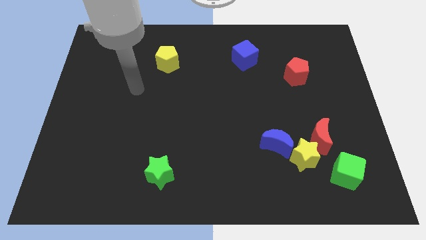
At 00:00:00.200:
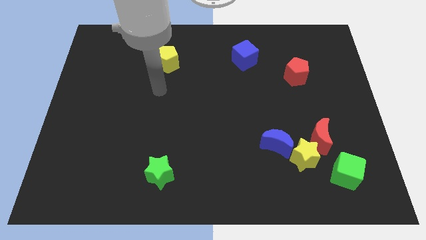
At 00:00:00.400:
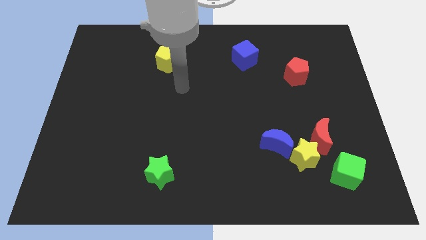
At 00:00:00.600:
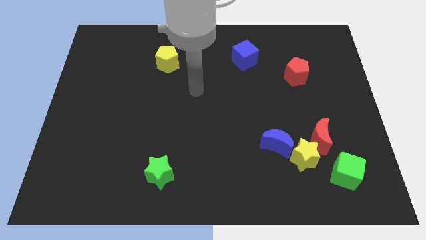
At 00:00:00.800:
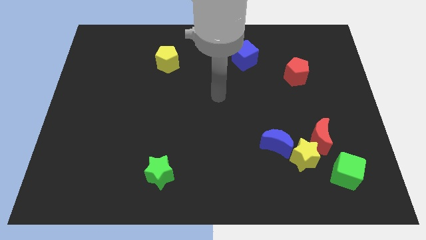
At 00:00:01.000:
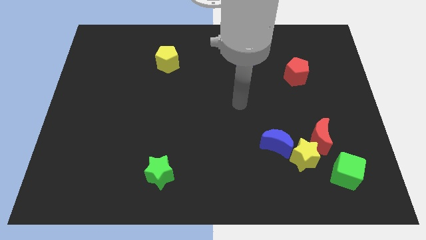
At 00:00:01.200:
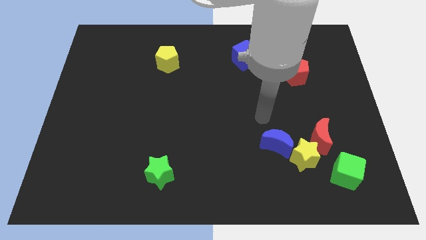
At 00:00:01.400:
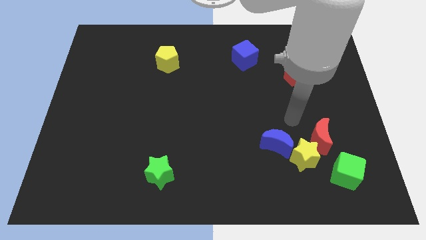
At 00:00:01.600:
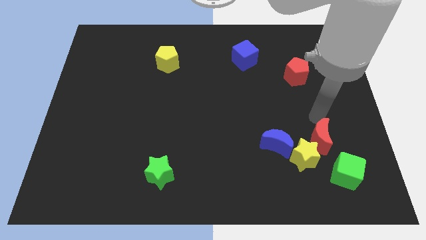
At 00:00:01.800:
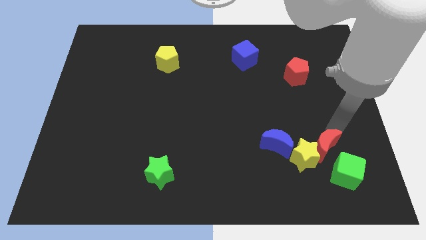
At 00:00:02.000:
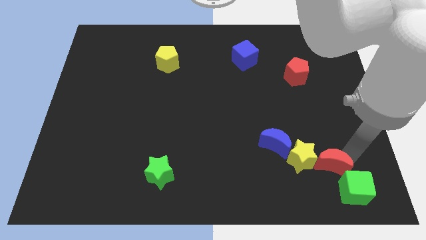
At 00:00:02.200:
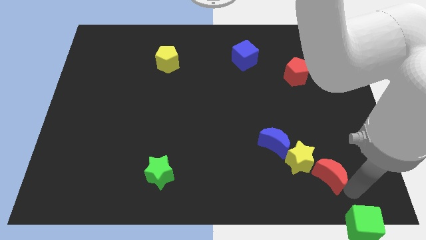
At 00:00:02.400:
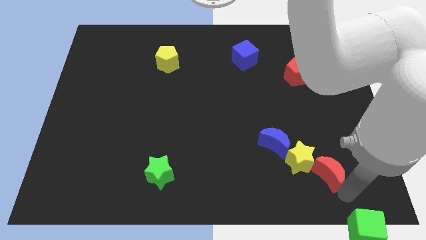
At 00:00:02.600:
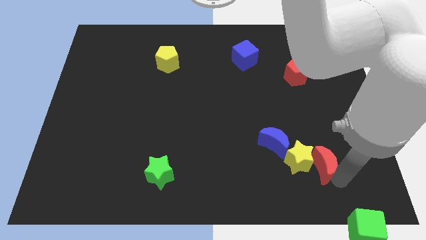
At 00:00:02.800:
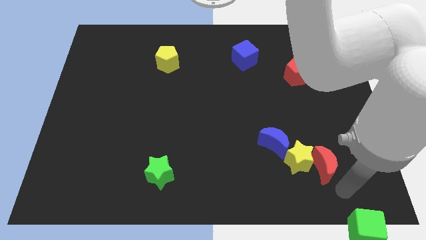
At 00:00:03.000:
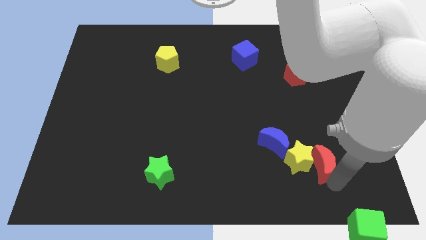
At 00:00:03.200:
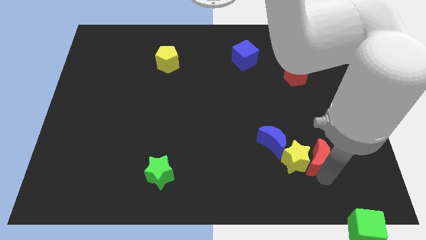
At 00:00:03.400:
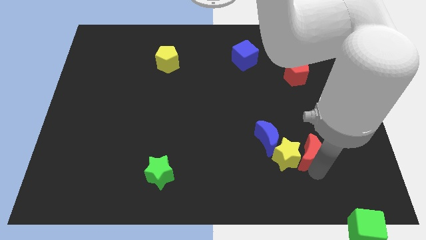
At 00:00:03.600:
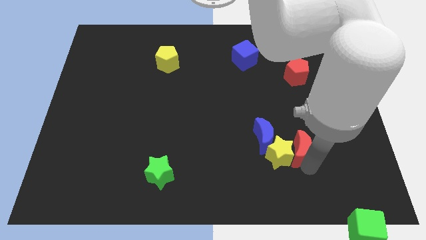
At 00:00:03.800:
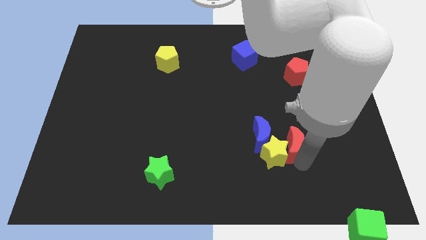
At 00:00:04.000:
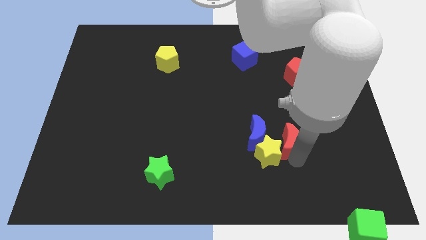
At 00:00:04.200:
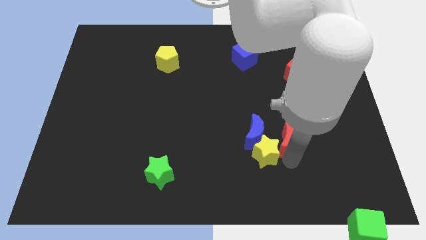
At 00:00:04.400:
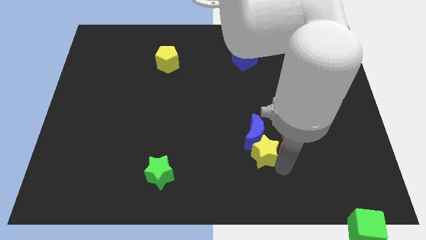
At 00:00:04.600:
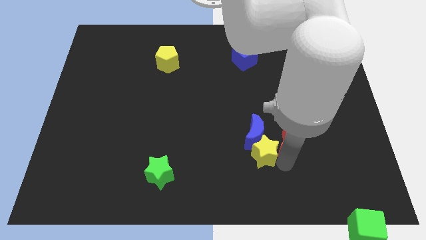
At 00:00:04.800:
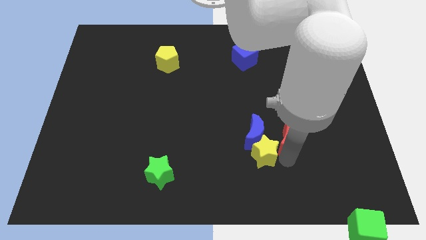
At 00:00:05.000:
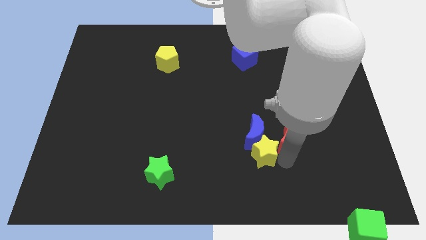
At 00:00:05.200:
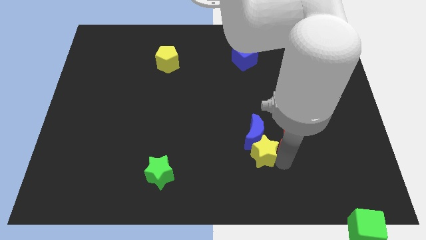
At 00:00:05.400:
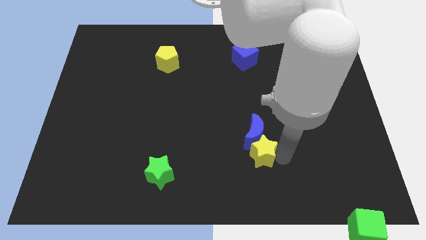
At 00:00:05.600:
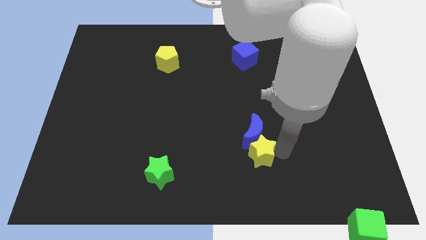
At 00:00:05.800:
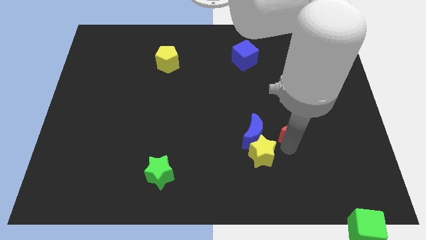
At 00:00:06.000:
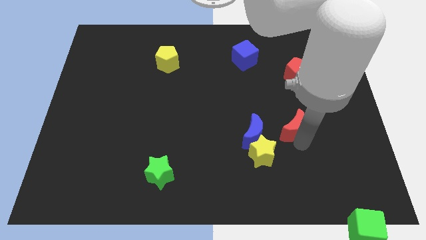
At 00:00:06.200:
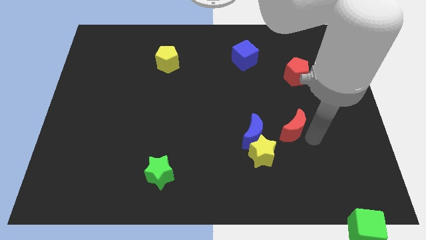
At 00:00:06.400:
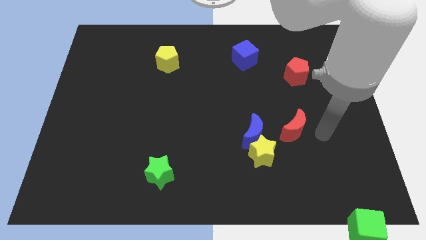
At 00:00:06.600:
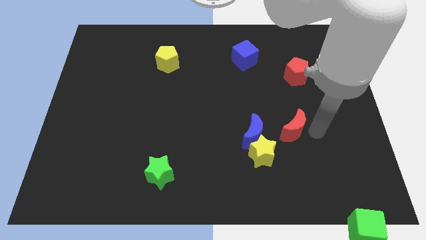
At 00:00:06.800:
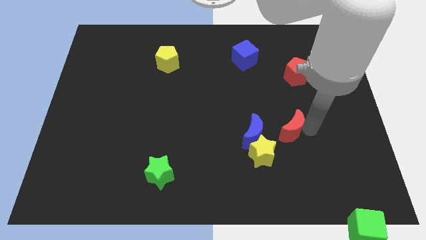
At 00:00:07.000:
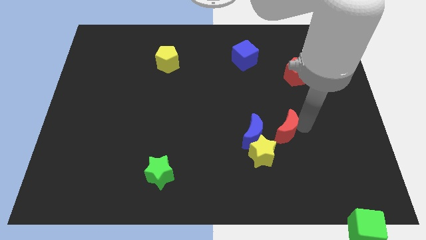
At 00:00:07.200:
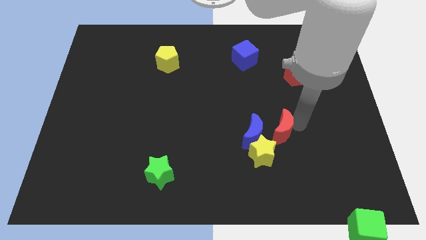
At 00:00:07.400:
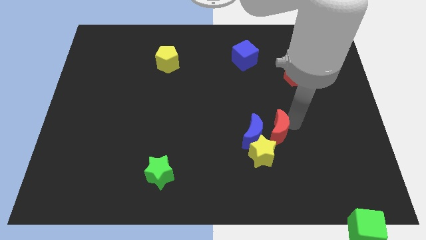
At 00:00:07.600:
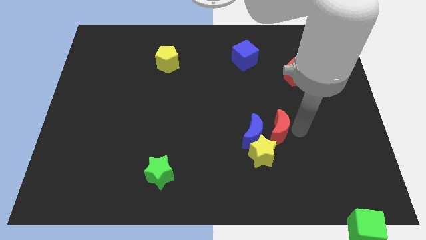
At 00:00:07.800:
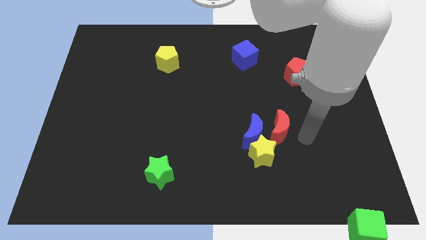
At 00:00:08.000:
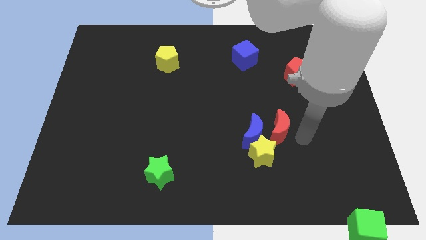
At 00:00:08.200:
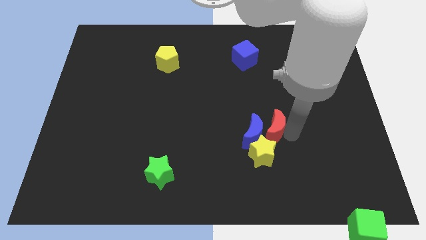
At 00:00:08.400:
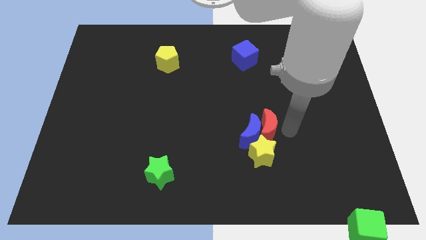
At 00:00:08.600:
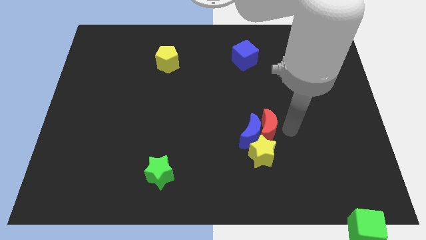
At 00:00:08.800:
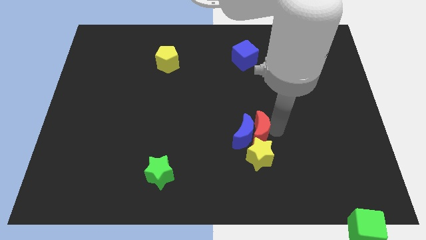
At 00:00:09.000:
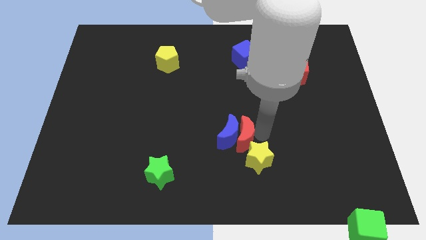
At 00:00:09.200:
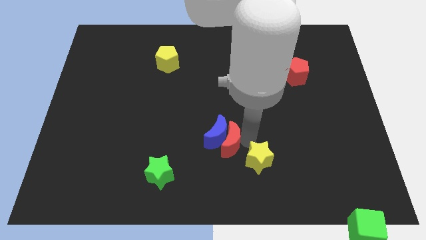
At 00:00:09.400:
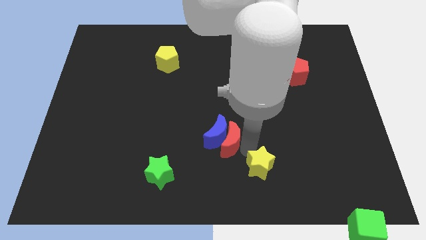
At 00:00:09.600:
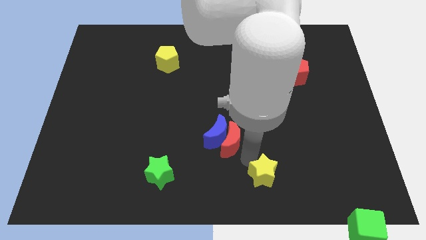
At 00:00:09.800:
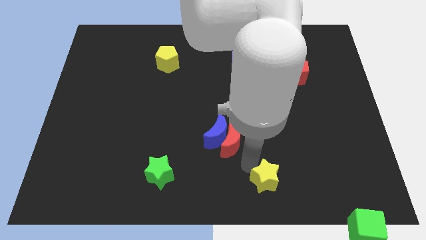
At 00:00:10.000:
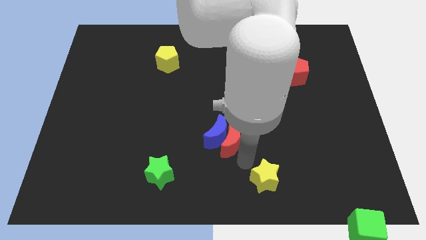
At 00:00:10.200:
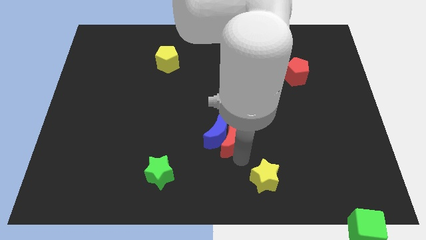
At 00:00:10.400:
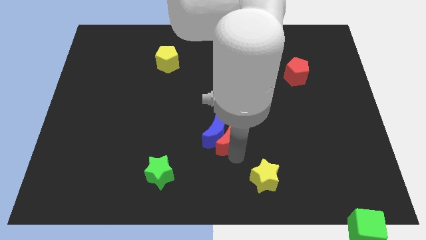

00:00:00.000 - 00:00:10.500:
push the red moon left

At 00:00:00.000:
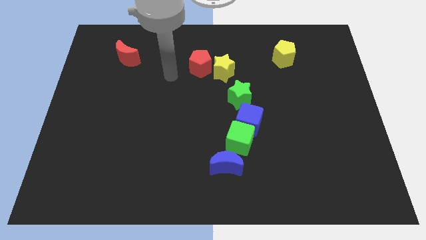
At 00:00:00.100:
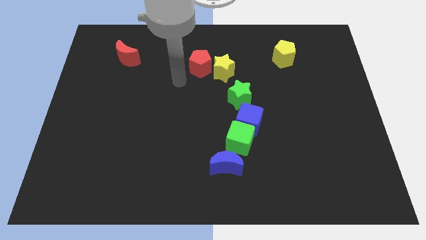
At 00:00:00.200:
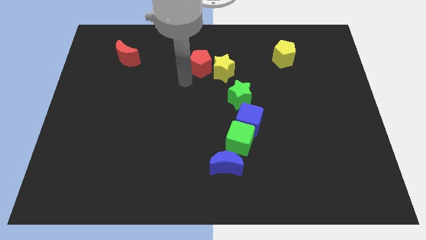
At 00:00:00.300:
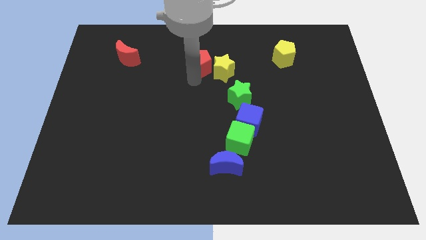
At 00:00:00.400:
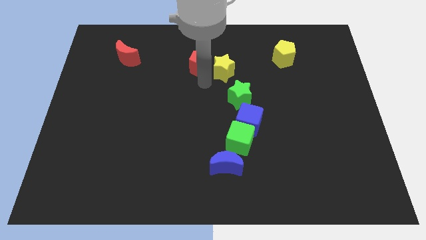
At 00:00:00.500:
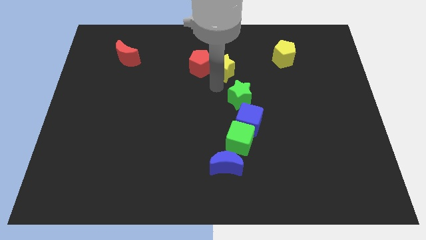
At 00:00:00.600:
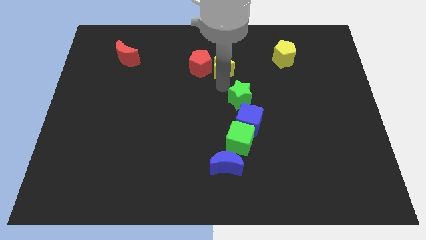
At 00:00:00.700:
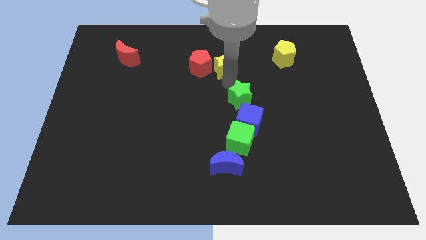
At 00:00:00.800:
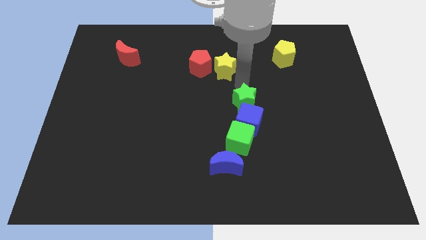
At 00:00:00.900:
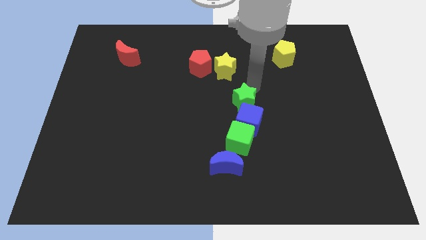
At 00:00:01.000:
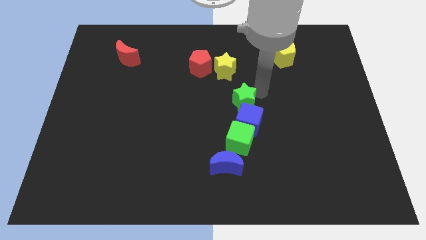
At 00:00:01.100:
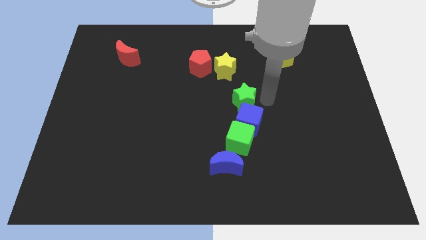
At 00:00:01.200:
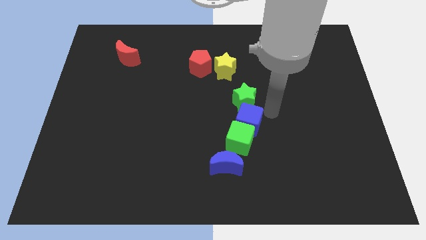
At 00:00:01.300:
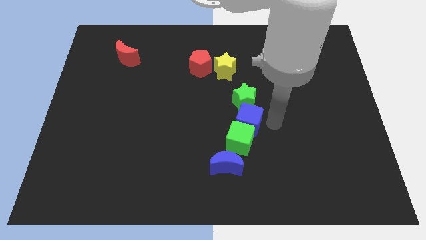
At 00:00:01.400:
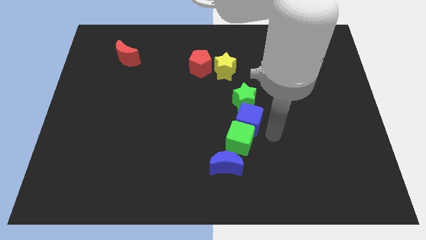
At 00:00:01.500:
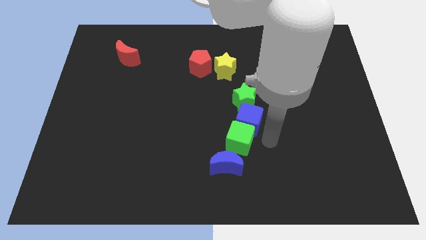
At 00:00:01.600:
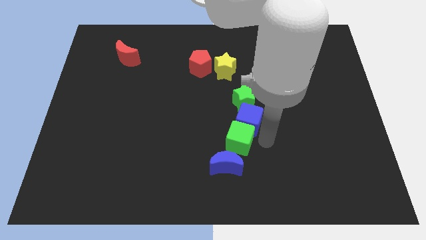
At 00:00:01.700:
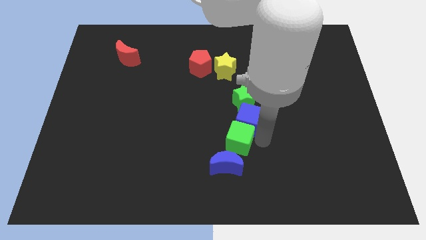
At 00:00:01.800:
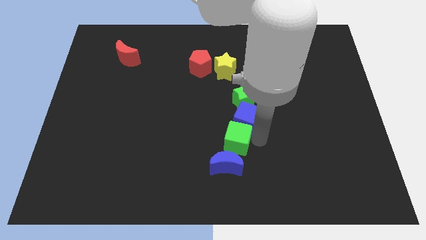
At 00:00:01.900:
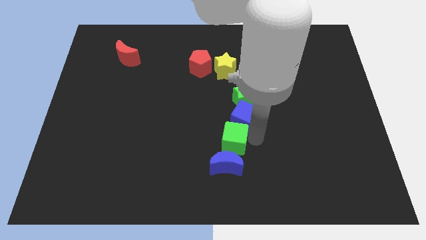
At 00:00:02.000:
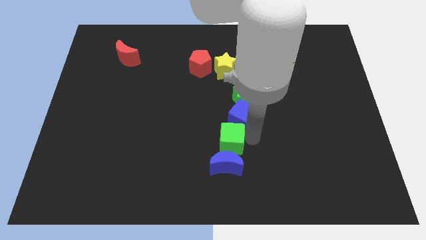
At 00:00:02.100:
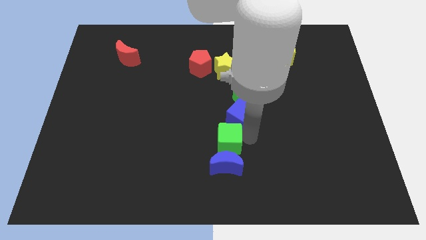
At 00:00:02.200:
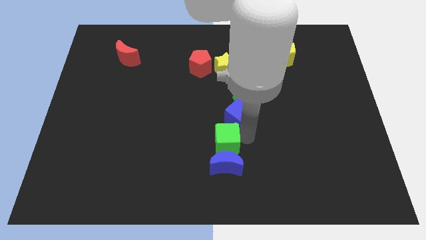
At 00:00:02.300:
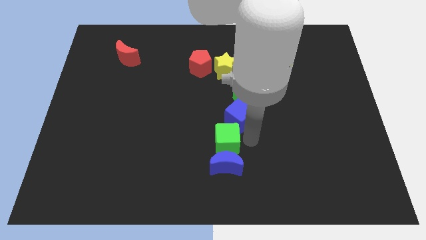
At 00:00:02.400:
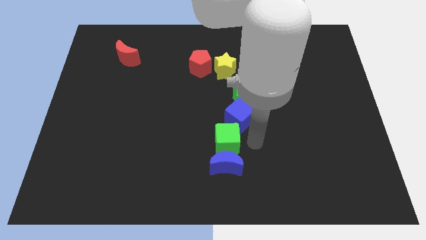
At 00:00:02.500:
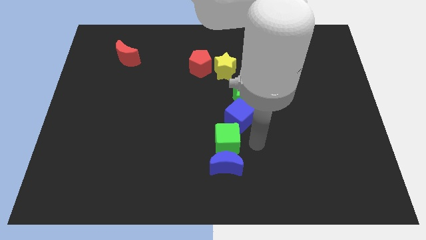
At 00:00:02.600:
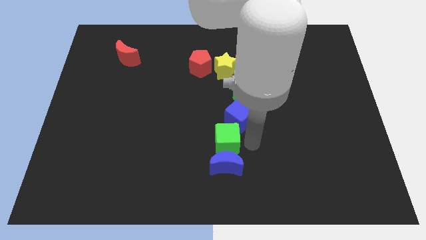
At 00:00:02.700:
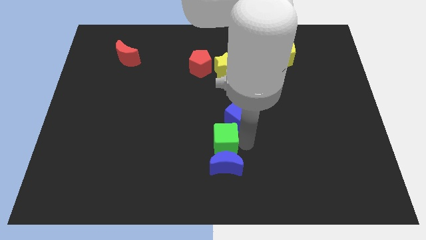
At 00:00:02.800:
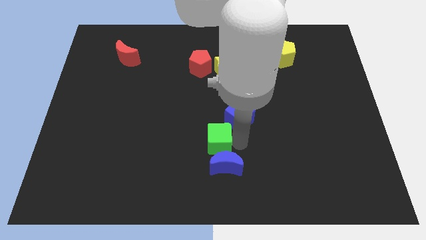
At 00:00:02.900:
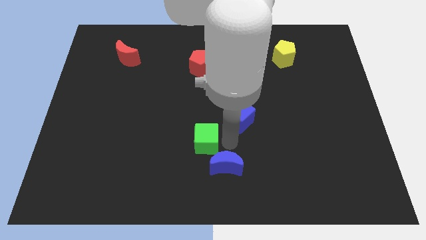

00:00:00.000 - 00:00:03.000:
push the green cube left somewhat
